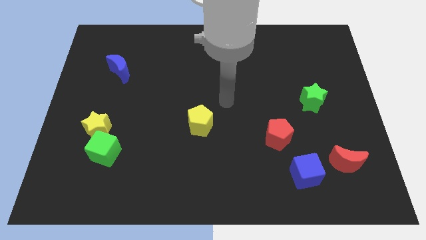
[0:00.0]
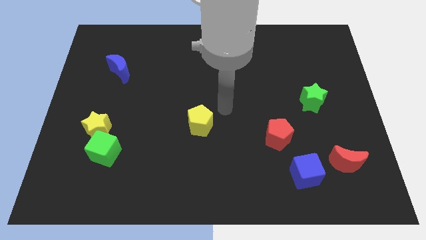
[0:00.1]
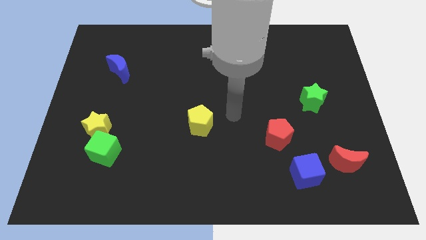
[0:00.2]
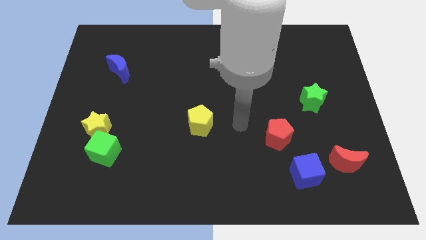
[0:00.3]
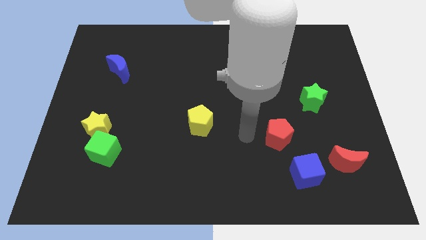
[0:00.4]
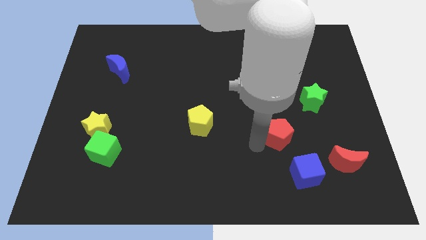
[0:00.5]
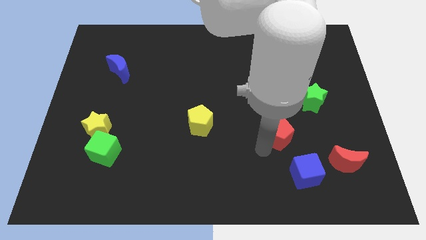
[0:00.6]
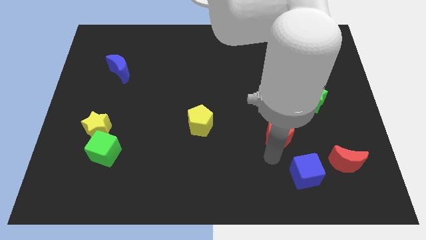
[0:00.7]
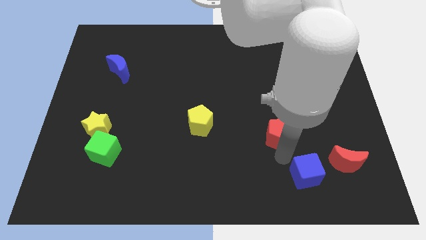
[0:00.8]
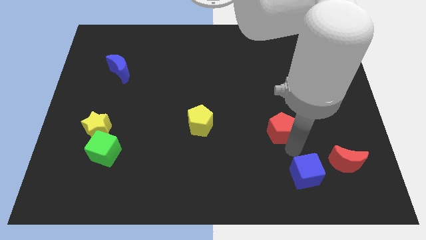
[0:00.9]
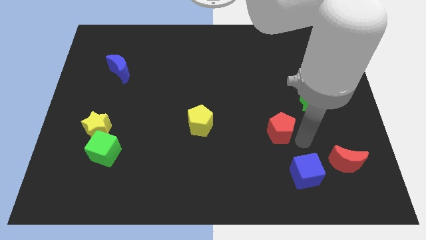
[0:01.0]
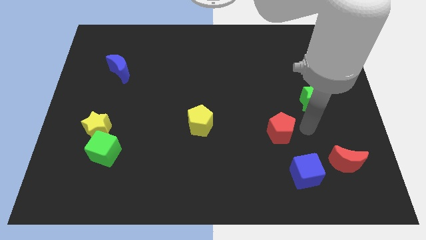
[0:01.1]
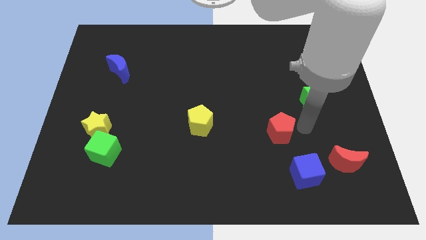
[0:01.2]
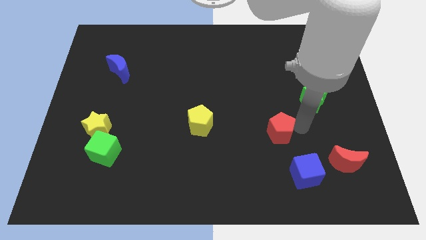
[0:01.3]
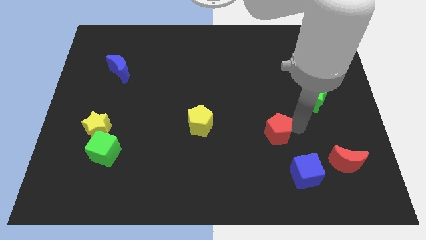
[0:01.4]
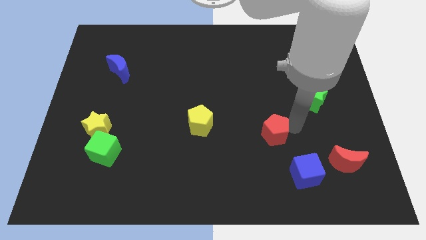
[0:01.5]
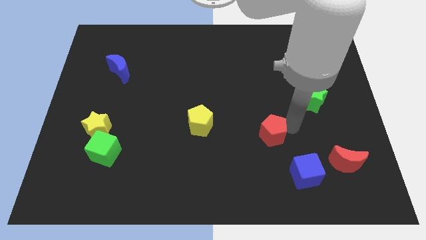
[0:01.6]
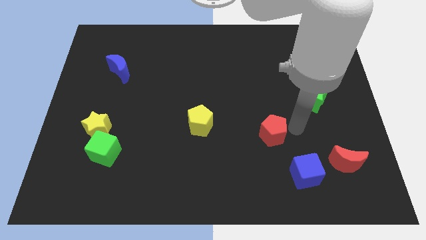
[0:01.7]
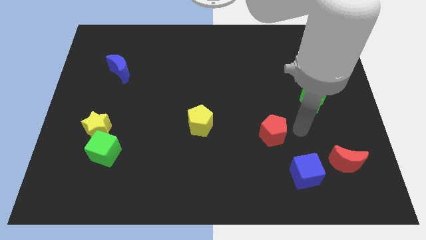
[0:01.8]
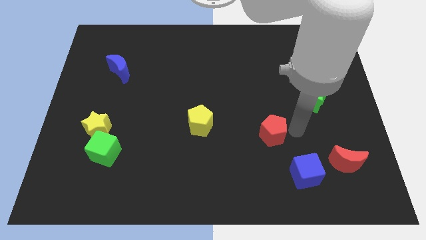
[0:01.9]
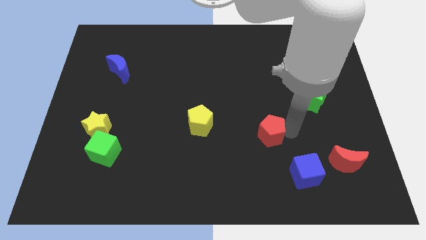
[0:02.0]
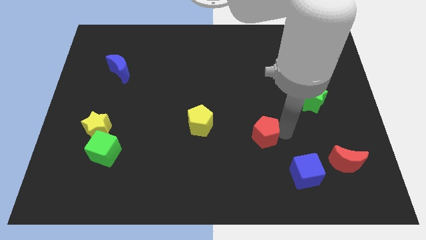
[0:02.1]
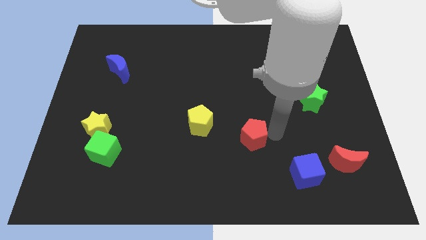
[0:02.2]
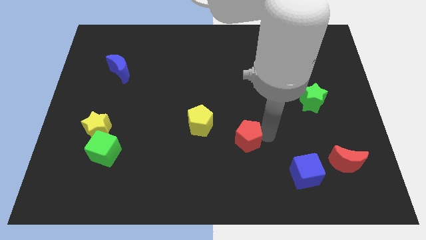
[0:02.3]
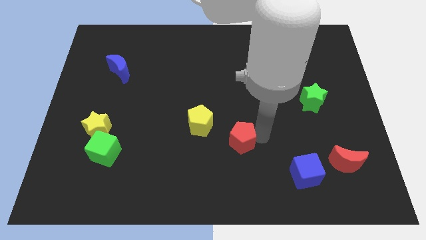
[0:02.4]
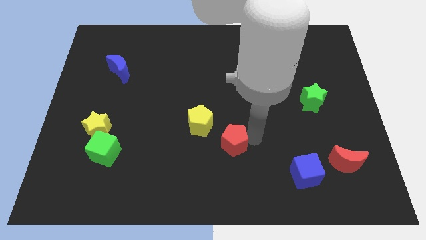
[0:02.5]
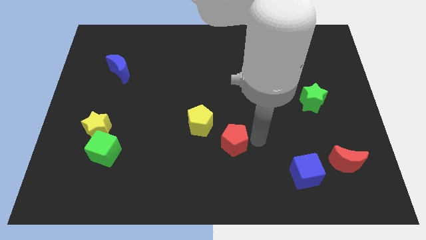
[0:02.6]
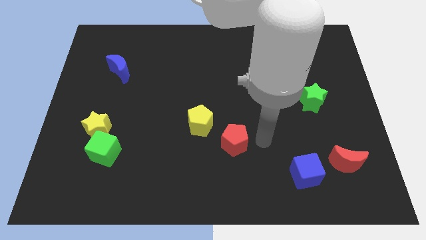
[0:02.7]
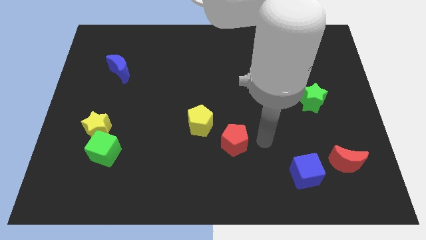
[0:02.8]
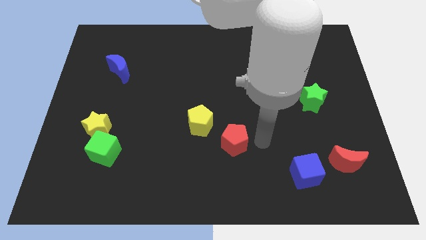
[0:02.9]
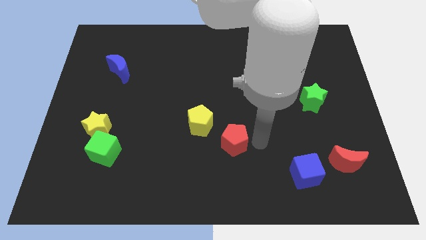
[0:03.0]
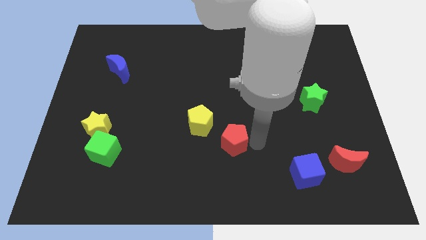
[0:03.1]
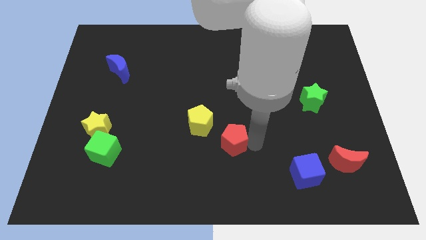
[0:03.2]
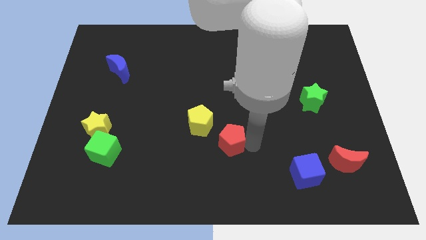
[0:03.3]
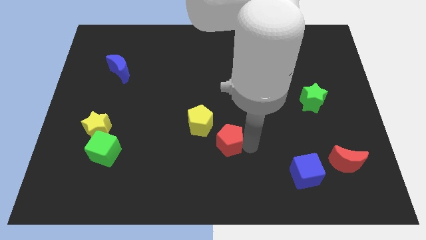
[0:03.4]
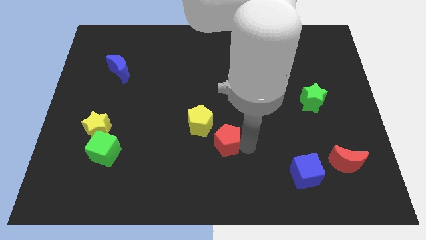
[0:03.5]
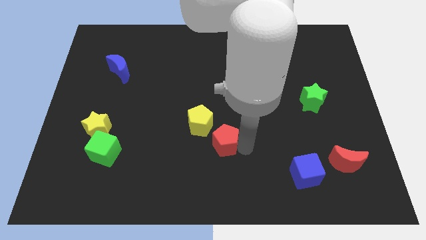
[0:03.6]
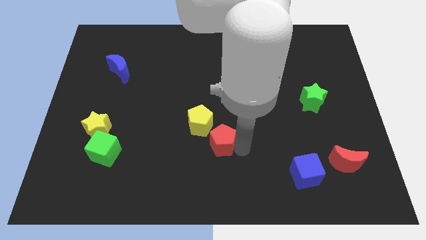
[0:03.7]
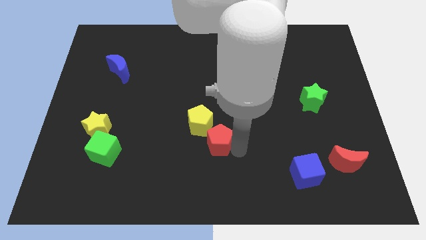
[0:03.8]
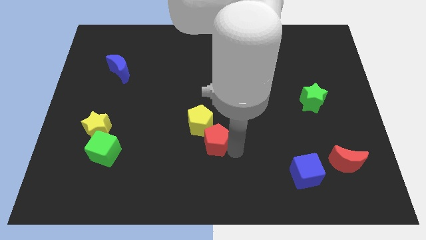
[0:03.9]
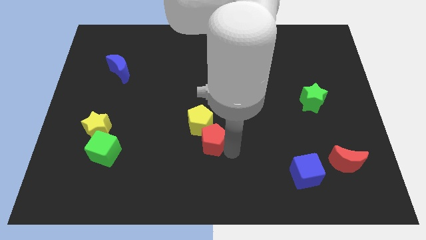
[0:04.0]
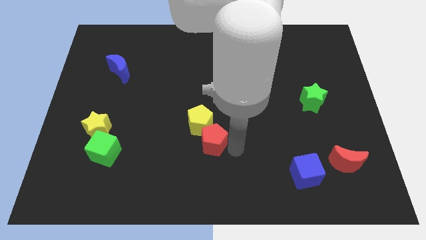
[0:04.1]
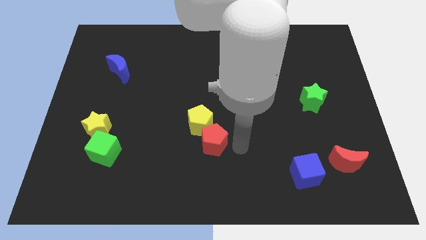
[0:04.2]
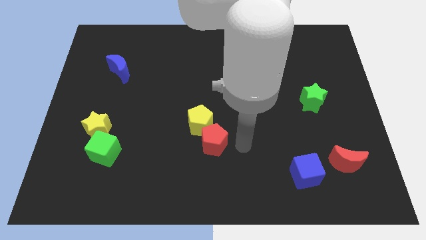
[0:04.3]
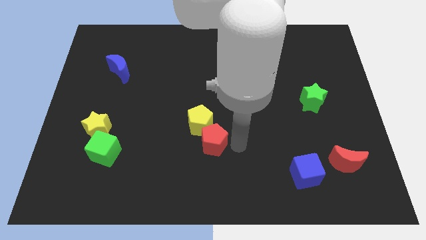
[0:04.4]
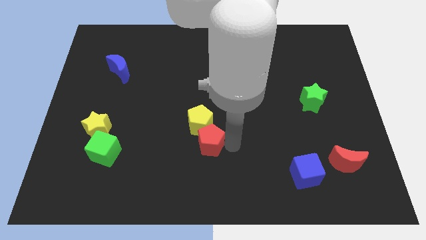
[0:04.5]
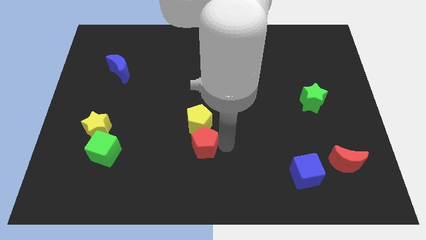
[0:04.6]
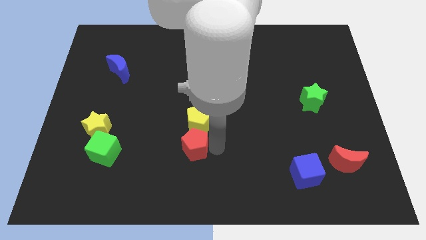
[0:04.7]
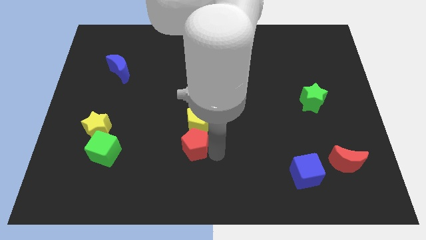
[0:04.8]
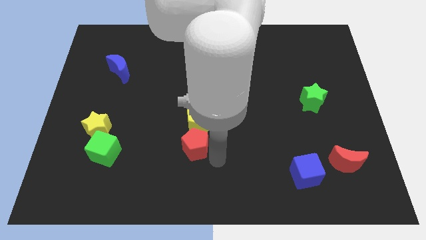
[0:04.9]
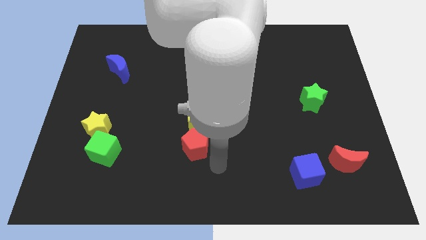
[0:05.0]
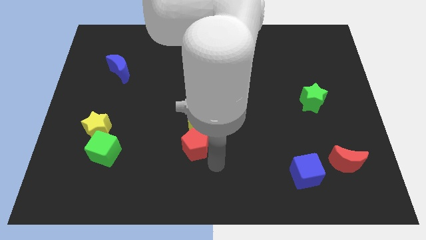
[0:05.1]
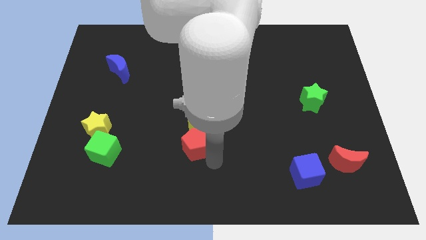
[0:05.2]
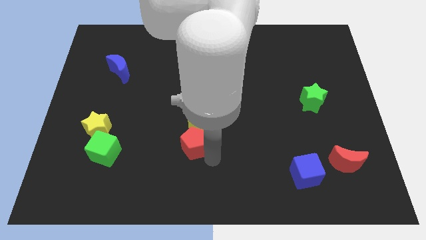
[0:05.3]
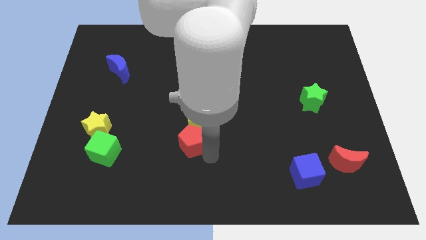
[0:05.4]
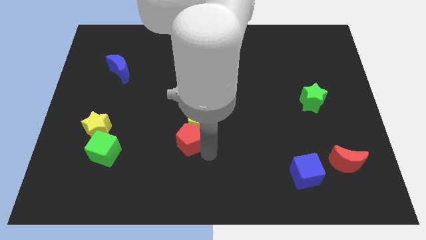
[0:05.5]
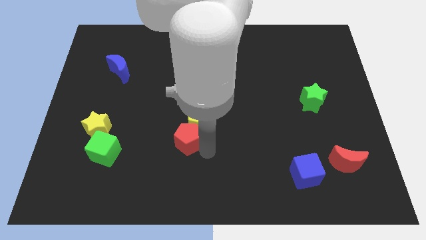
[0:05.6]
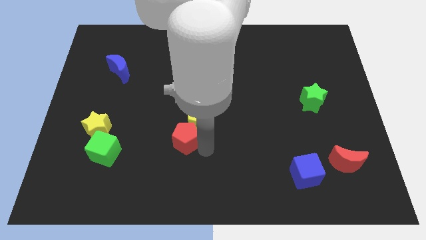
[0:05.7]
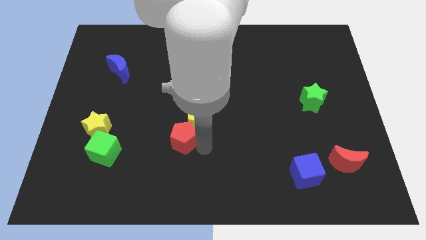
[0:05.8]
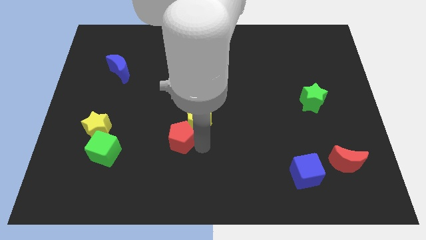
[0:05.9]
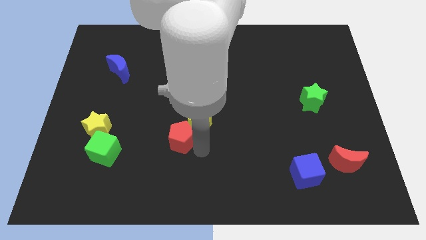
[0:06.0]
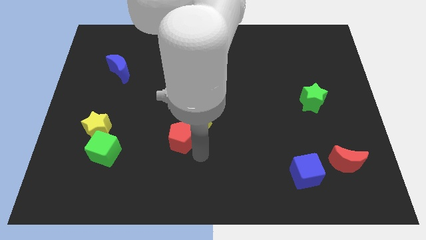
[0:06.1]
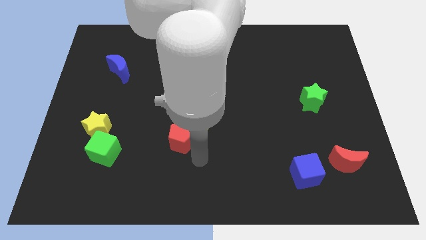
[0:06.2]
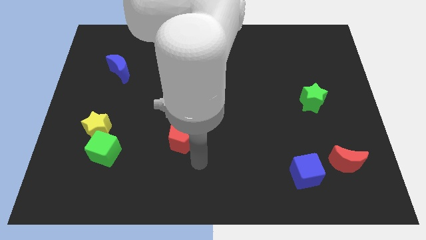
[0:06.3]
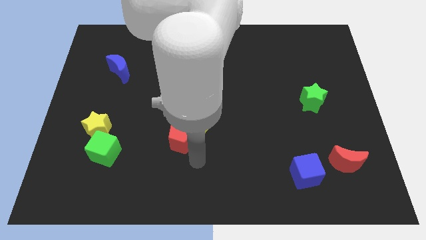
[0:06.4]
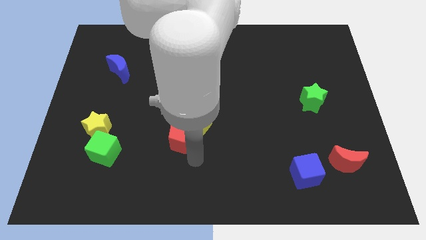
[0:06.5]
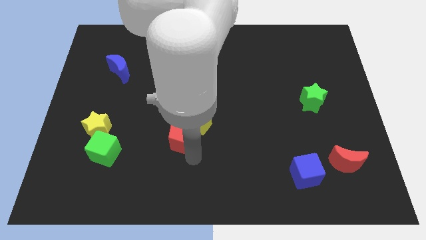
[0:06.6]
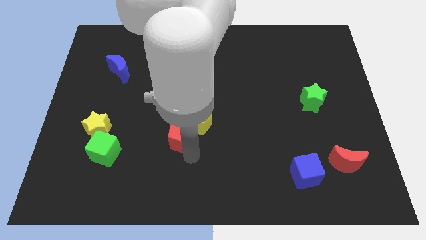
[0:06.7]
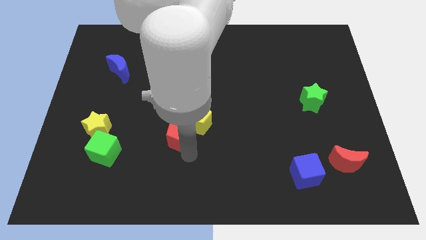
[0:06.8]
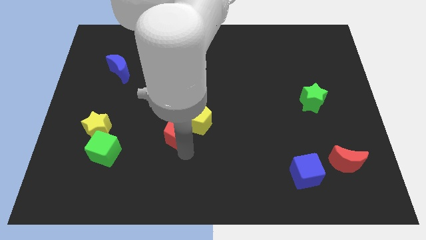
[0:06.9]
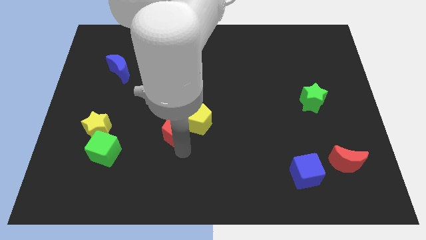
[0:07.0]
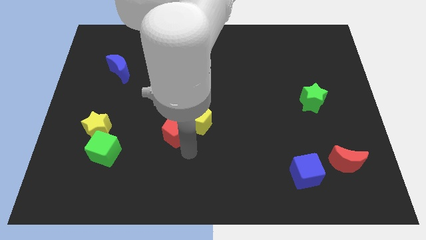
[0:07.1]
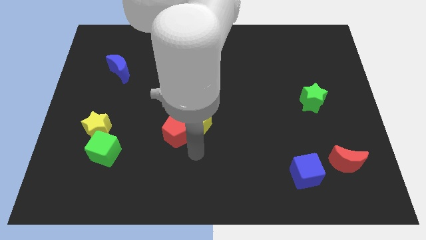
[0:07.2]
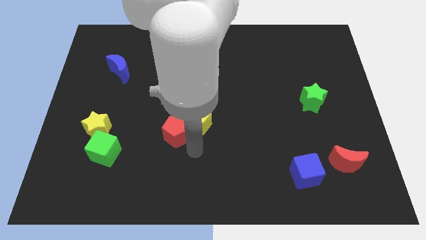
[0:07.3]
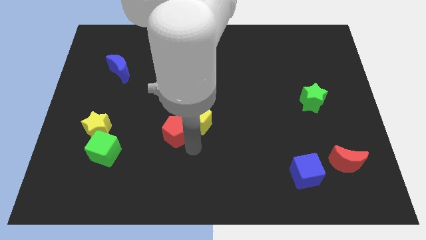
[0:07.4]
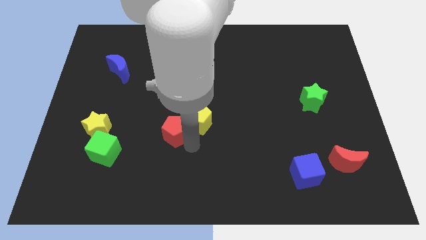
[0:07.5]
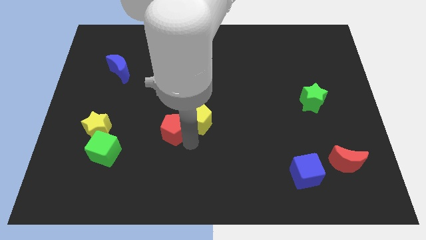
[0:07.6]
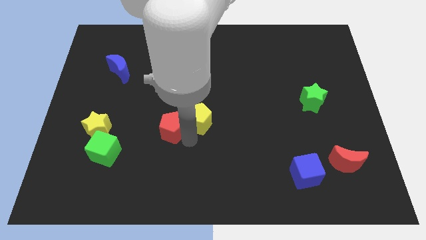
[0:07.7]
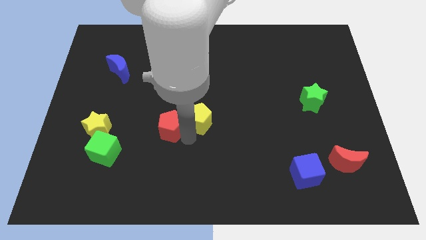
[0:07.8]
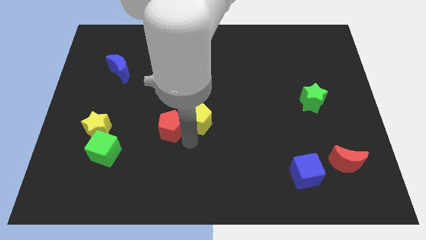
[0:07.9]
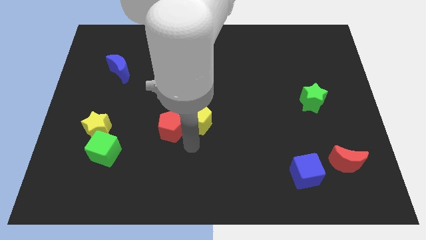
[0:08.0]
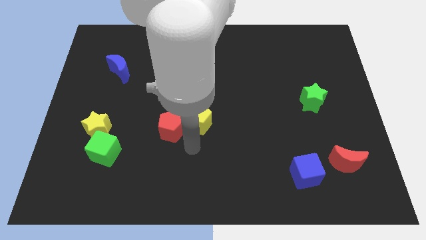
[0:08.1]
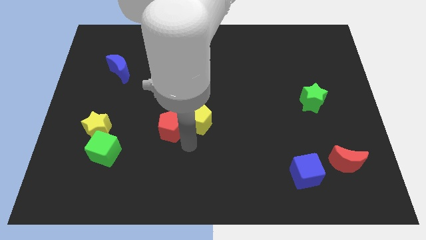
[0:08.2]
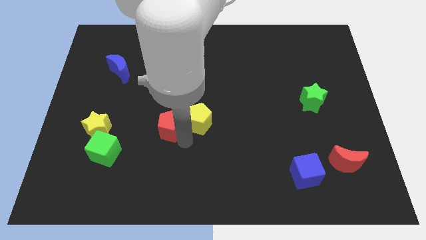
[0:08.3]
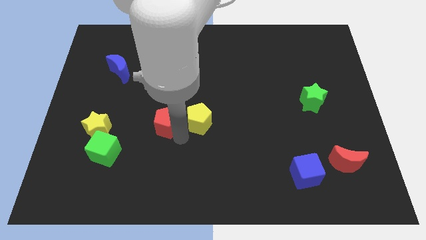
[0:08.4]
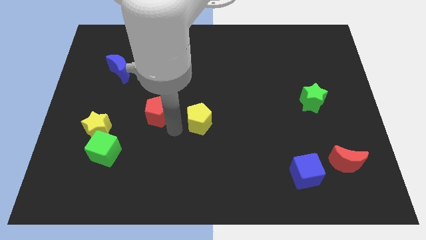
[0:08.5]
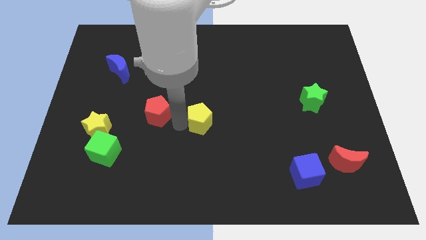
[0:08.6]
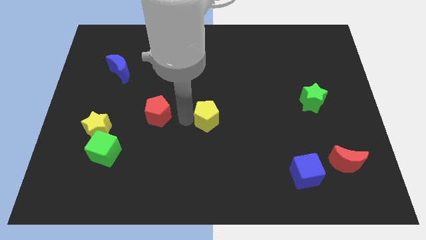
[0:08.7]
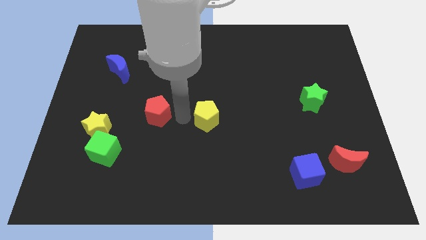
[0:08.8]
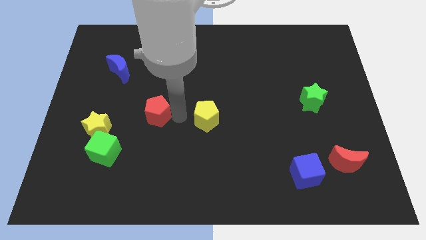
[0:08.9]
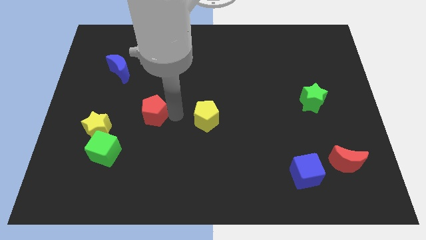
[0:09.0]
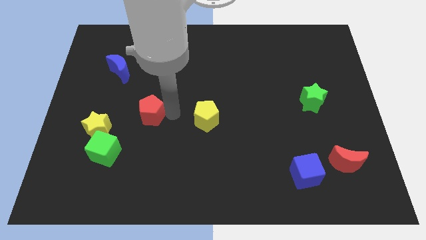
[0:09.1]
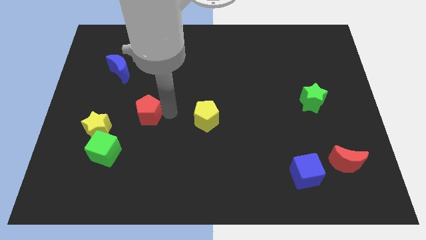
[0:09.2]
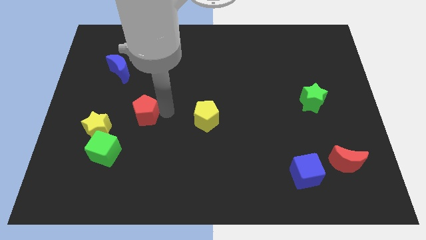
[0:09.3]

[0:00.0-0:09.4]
move the red pentagon to the top right of the yellow star
